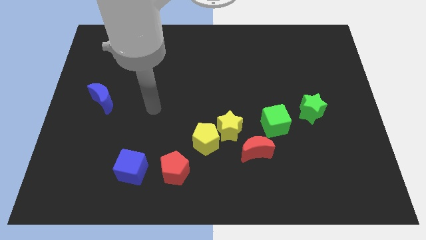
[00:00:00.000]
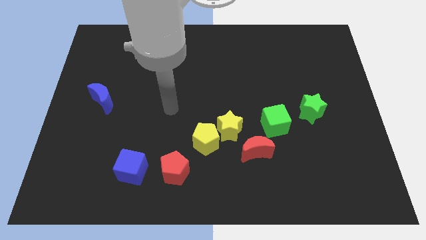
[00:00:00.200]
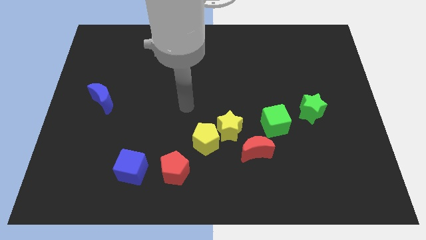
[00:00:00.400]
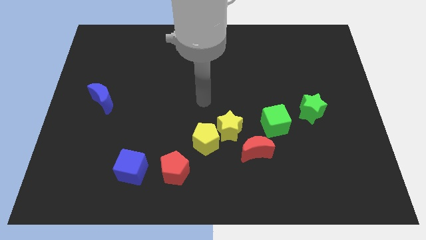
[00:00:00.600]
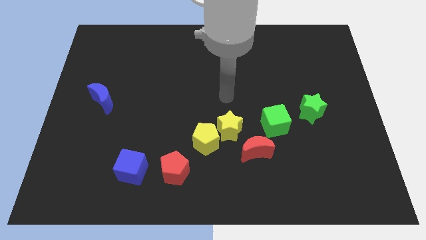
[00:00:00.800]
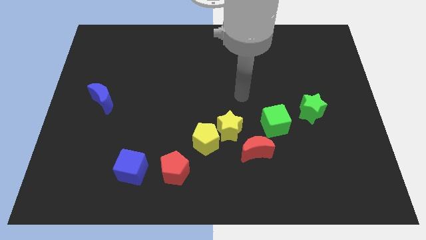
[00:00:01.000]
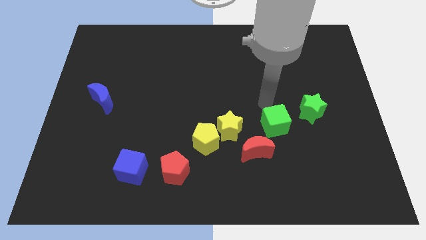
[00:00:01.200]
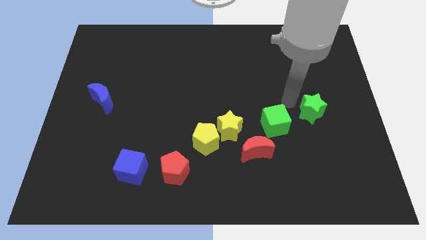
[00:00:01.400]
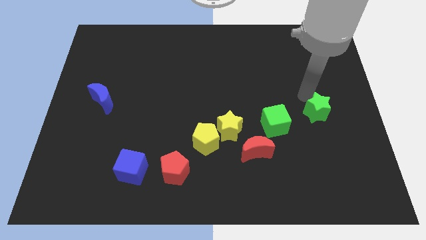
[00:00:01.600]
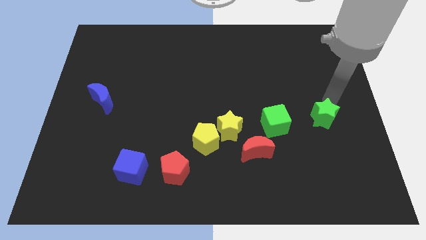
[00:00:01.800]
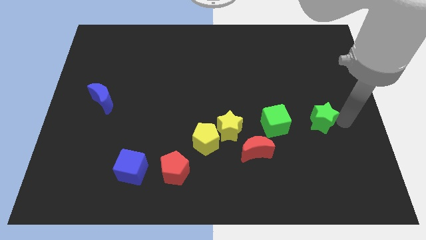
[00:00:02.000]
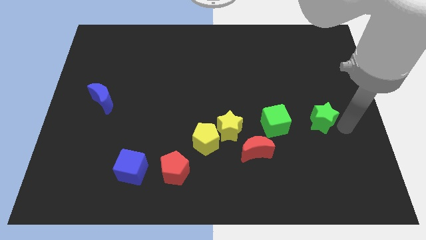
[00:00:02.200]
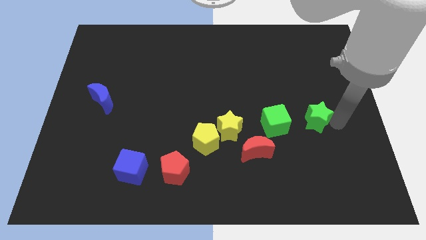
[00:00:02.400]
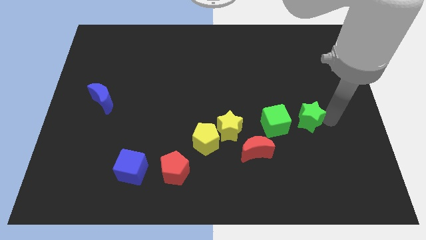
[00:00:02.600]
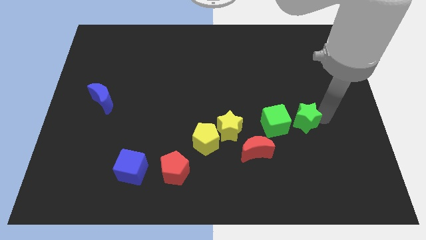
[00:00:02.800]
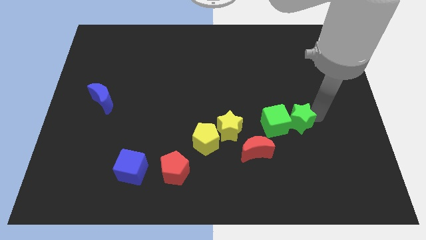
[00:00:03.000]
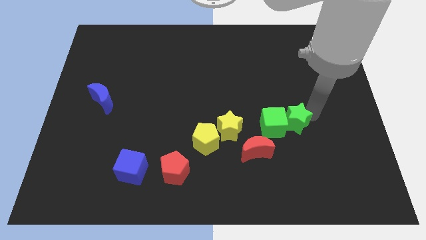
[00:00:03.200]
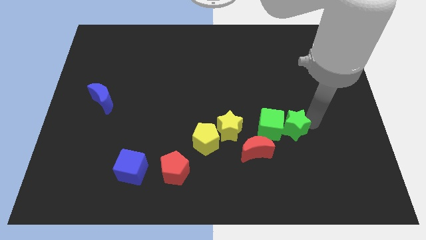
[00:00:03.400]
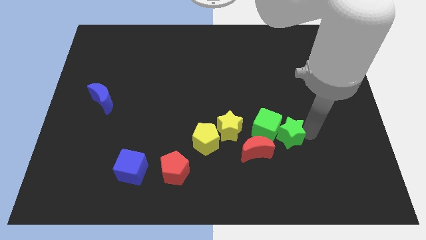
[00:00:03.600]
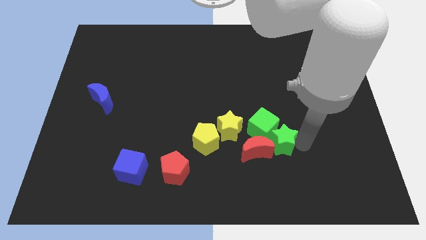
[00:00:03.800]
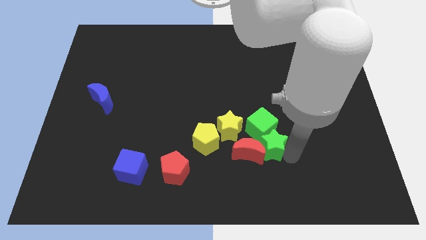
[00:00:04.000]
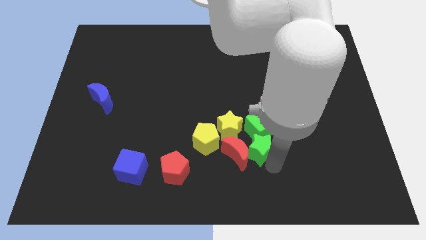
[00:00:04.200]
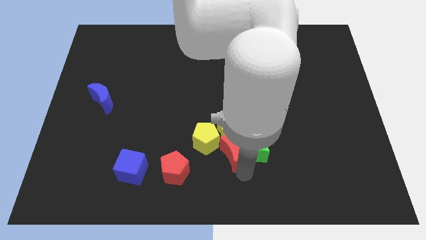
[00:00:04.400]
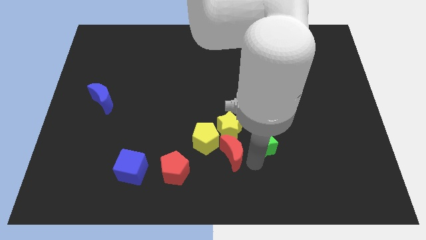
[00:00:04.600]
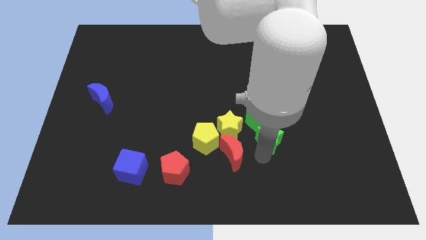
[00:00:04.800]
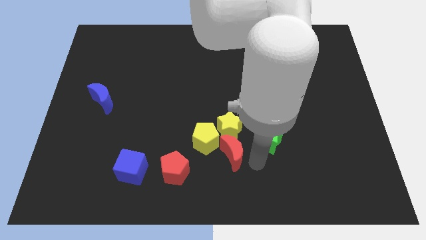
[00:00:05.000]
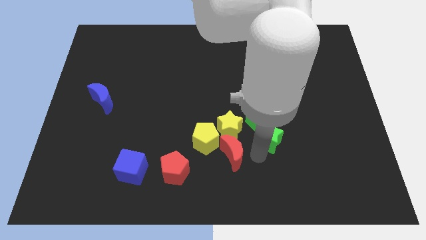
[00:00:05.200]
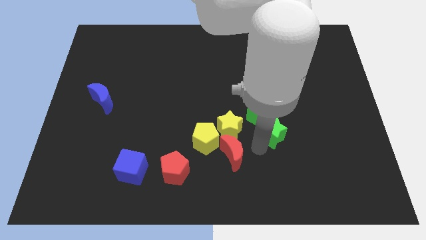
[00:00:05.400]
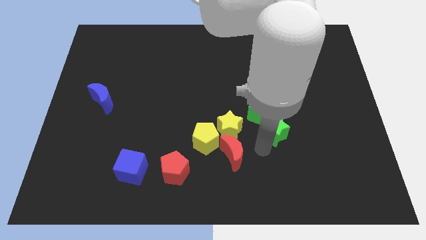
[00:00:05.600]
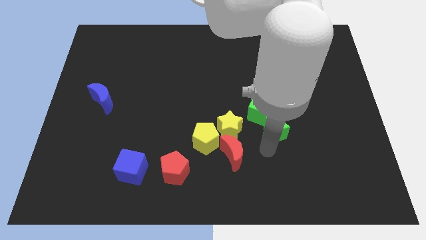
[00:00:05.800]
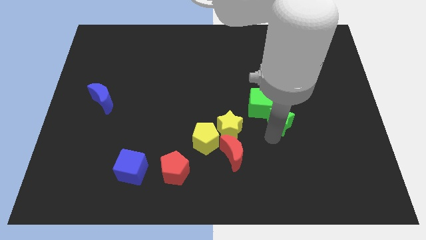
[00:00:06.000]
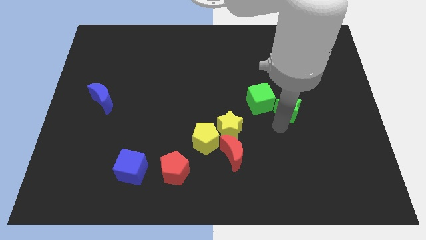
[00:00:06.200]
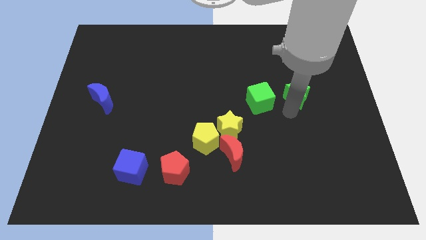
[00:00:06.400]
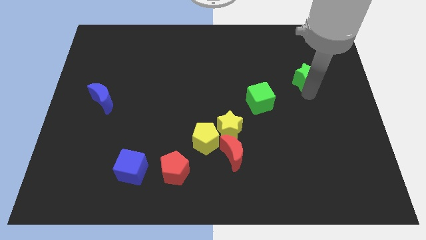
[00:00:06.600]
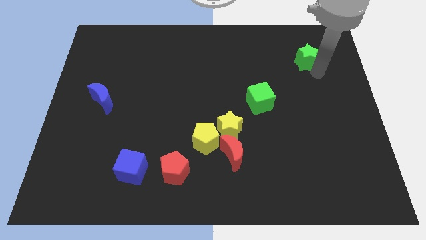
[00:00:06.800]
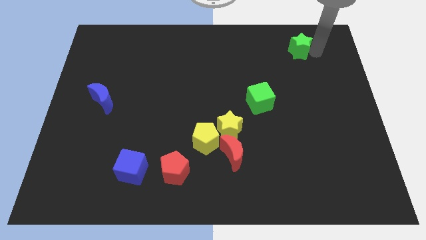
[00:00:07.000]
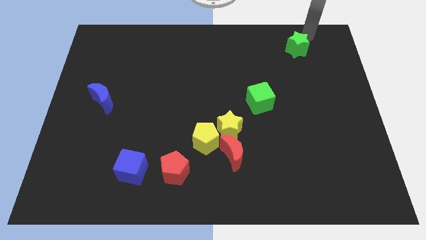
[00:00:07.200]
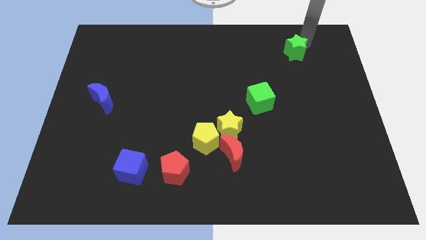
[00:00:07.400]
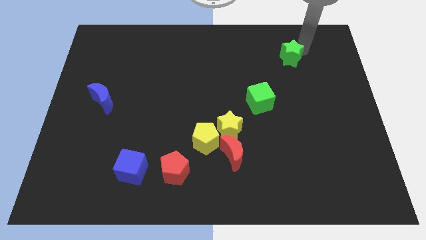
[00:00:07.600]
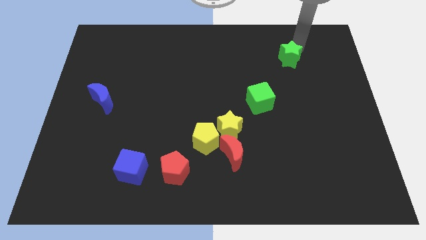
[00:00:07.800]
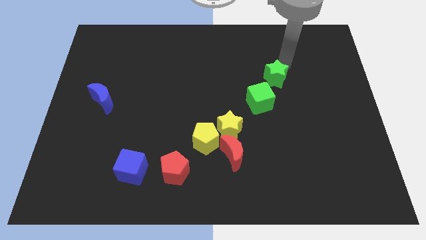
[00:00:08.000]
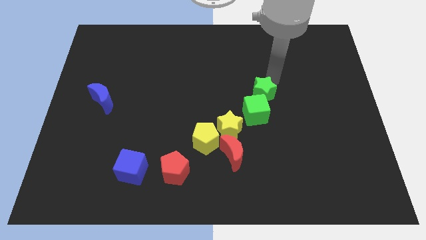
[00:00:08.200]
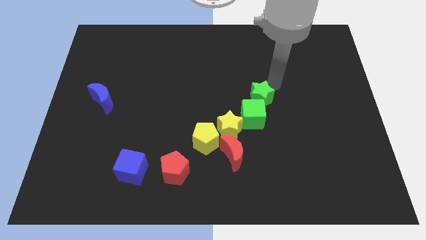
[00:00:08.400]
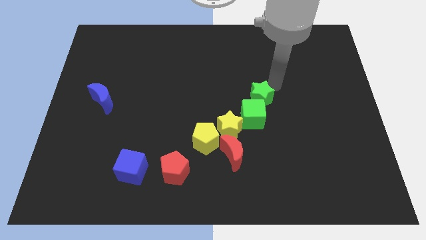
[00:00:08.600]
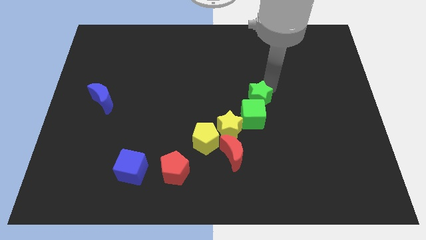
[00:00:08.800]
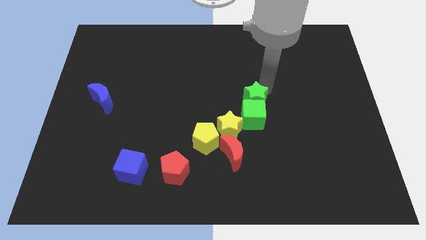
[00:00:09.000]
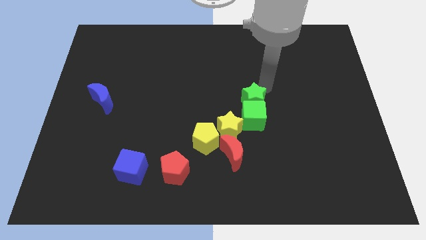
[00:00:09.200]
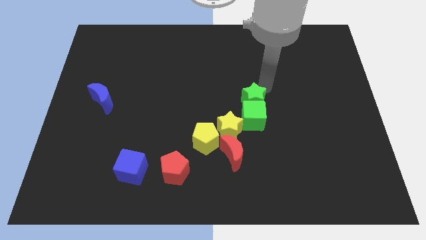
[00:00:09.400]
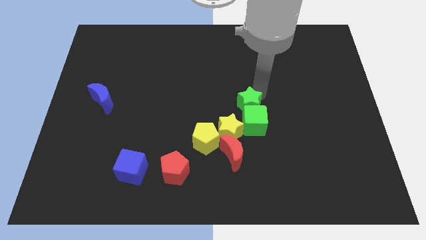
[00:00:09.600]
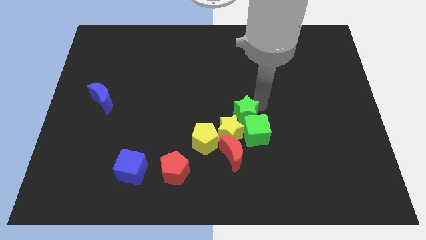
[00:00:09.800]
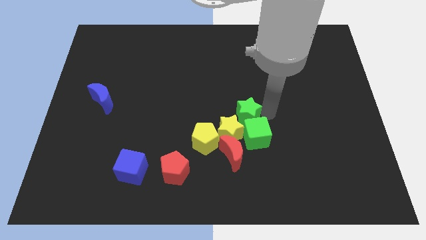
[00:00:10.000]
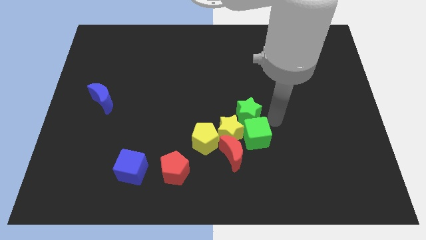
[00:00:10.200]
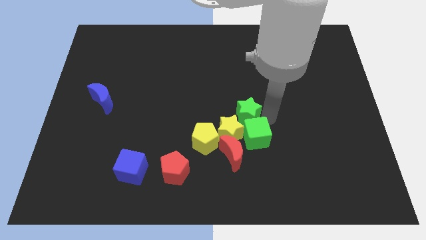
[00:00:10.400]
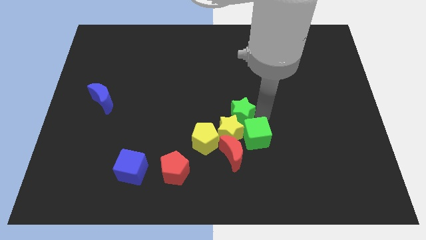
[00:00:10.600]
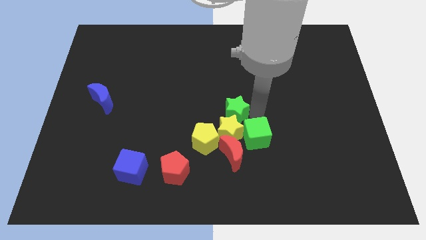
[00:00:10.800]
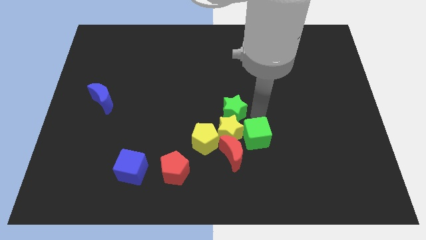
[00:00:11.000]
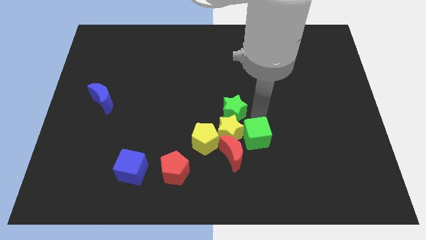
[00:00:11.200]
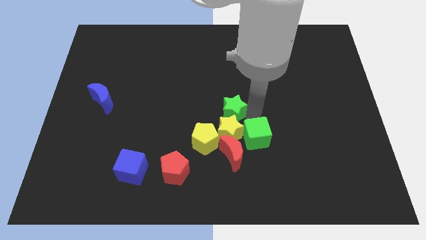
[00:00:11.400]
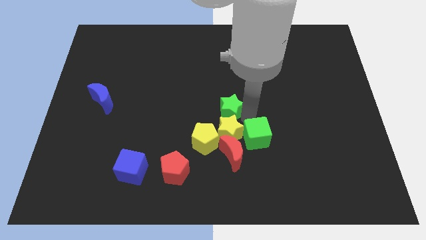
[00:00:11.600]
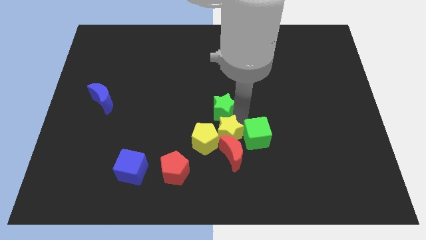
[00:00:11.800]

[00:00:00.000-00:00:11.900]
push the green star left

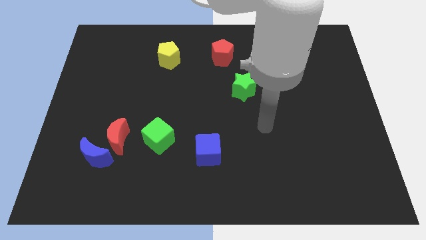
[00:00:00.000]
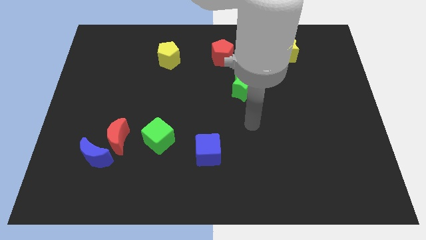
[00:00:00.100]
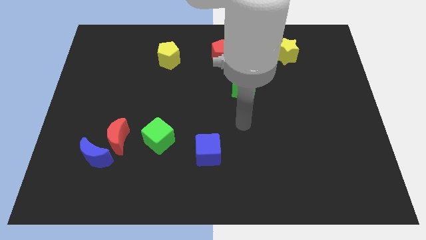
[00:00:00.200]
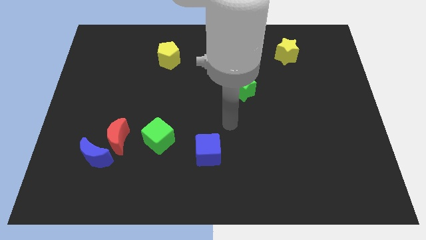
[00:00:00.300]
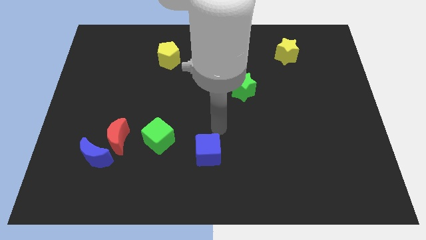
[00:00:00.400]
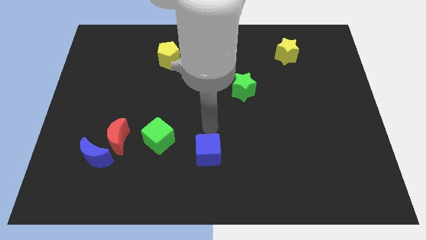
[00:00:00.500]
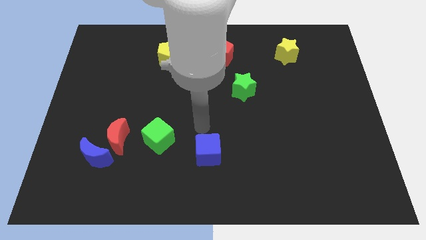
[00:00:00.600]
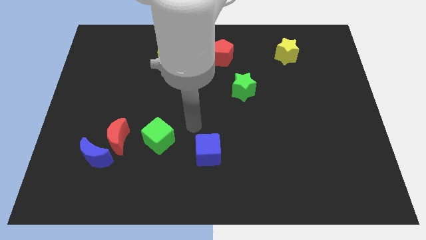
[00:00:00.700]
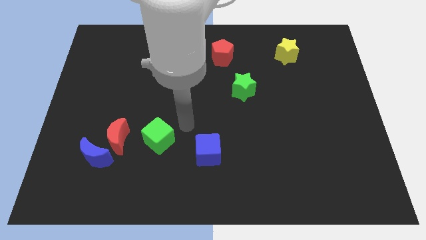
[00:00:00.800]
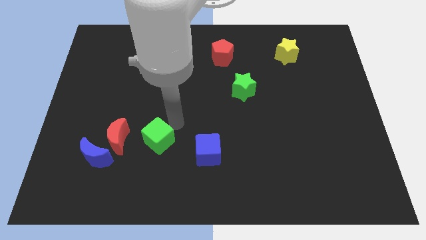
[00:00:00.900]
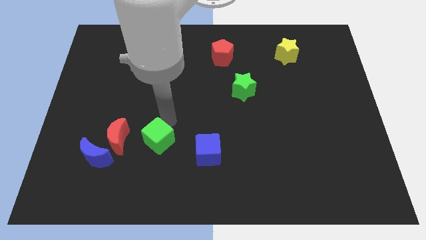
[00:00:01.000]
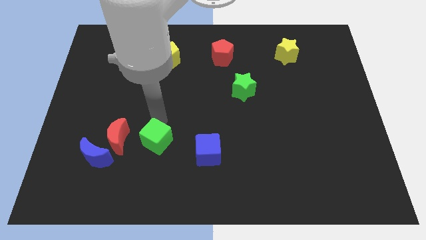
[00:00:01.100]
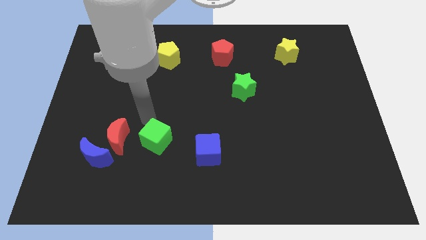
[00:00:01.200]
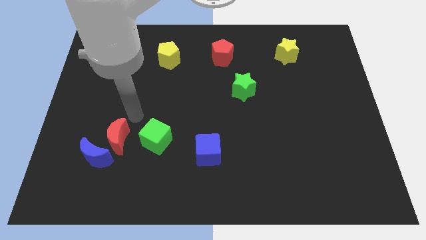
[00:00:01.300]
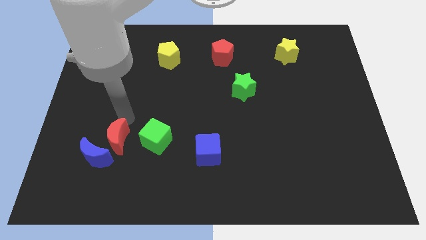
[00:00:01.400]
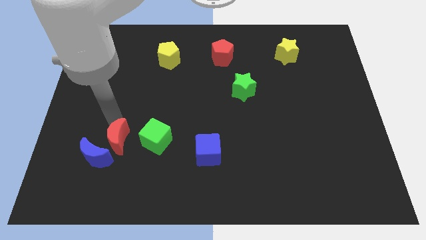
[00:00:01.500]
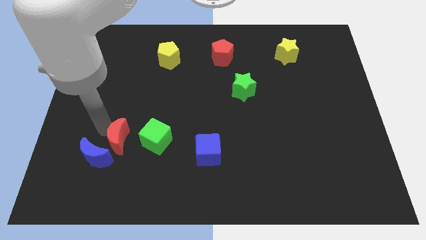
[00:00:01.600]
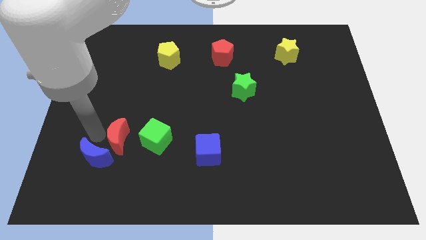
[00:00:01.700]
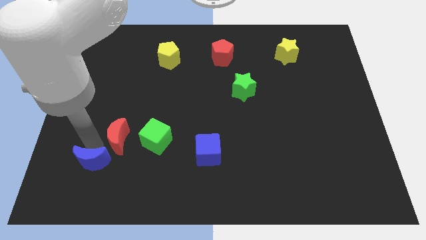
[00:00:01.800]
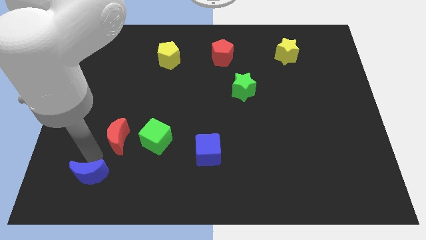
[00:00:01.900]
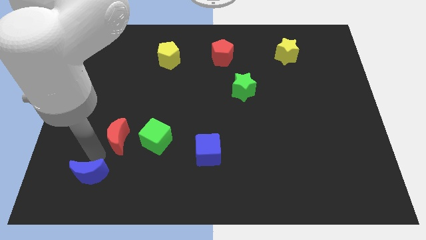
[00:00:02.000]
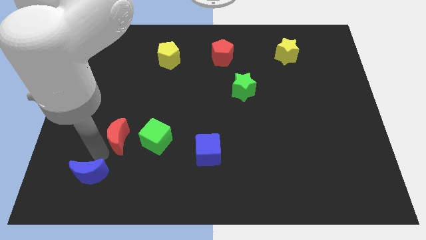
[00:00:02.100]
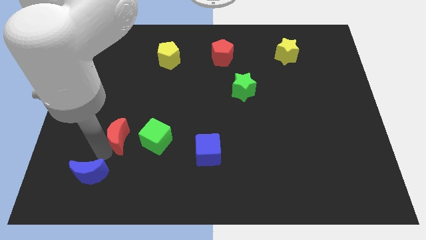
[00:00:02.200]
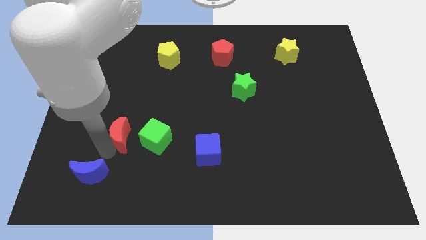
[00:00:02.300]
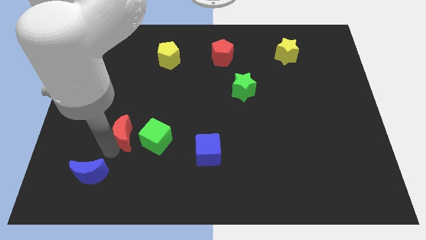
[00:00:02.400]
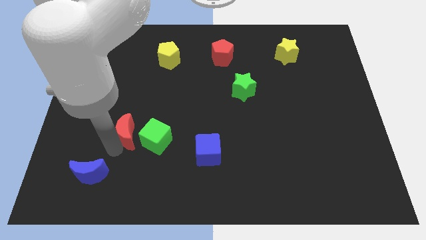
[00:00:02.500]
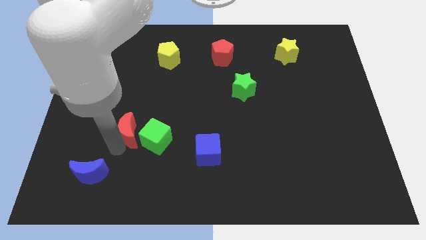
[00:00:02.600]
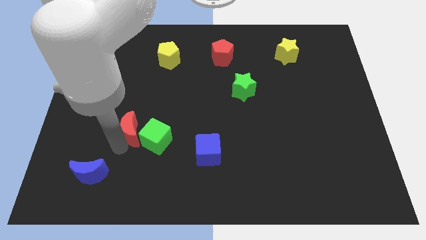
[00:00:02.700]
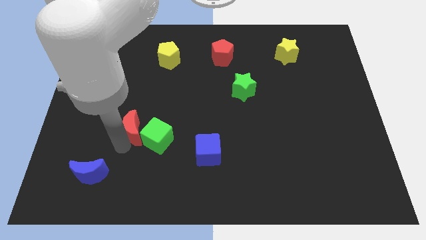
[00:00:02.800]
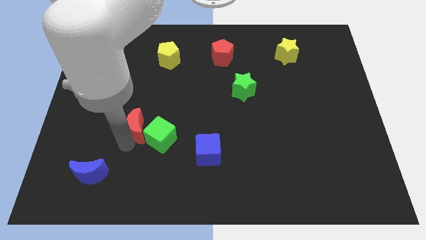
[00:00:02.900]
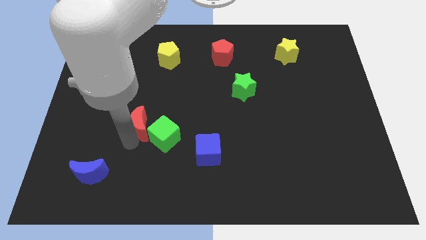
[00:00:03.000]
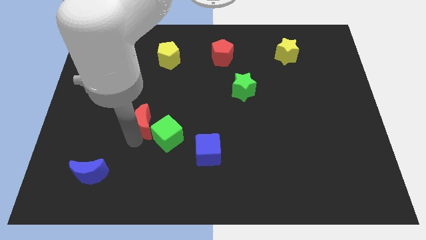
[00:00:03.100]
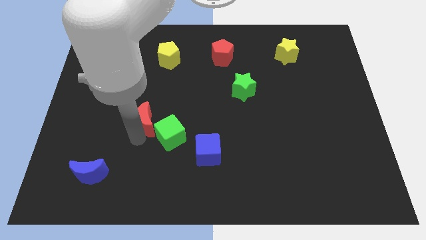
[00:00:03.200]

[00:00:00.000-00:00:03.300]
move the red moon a bit upwards and right
